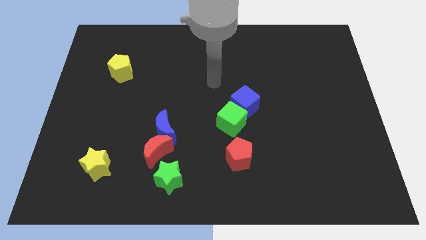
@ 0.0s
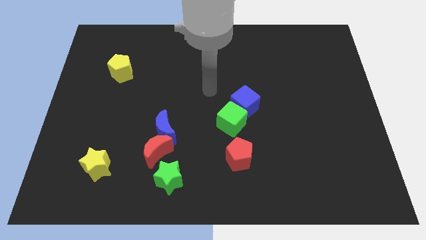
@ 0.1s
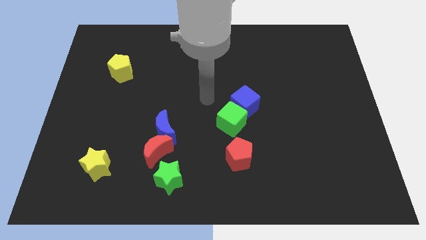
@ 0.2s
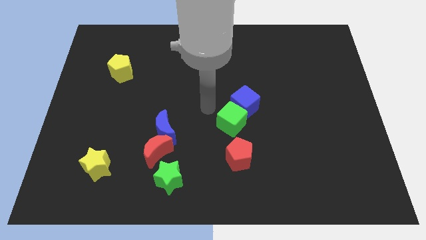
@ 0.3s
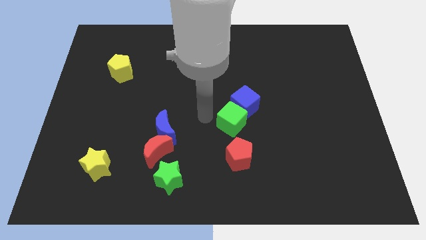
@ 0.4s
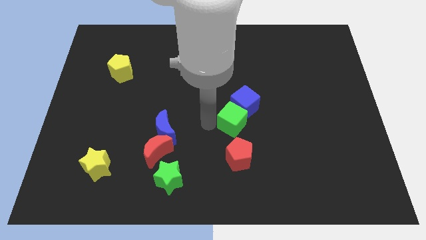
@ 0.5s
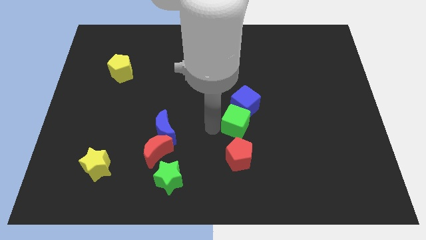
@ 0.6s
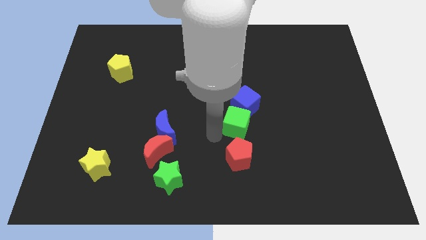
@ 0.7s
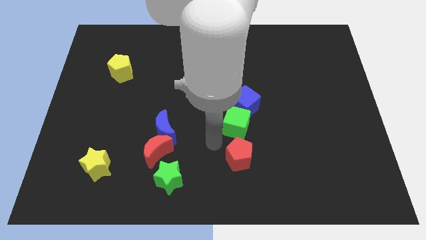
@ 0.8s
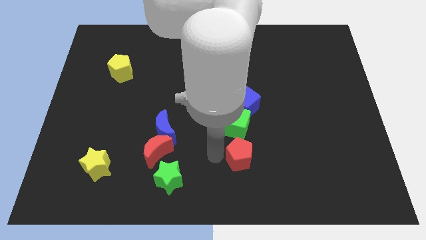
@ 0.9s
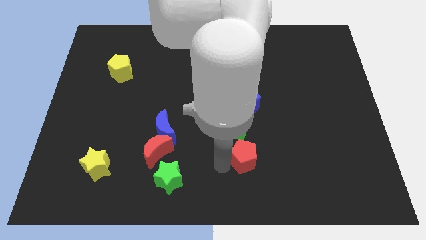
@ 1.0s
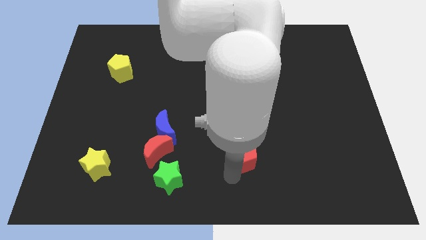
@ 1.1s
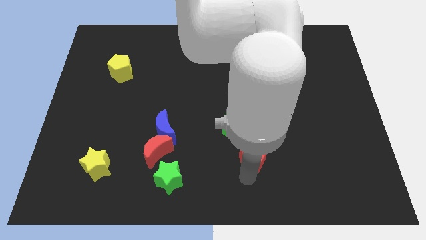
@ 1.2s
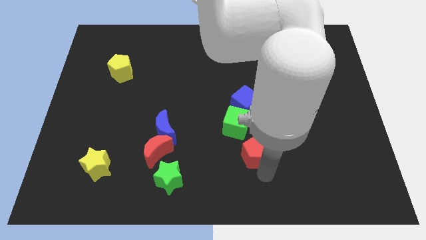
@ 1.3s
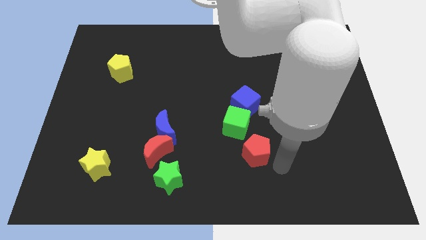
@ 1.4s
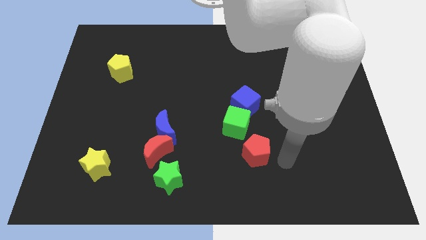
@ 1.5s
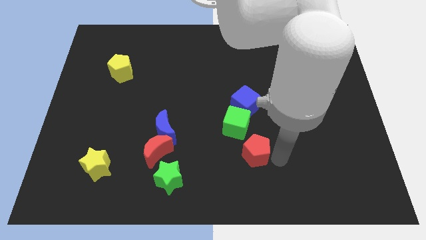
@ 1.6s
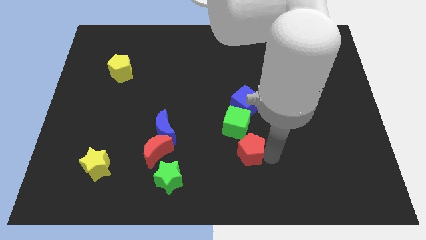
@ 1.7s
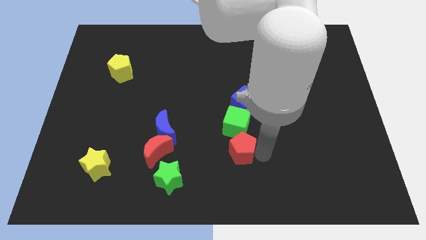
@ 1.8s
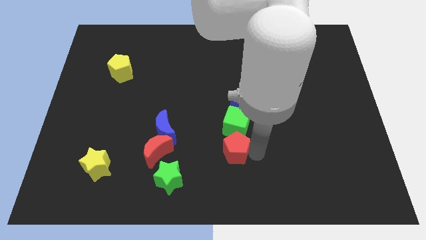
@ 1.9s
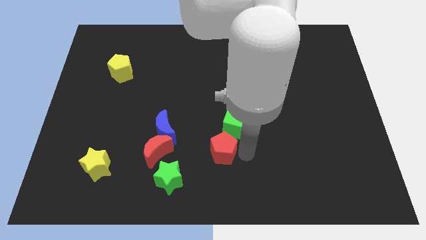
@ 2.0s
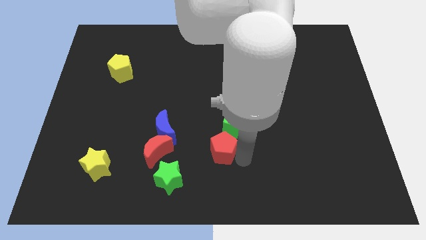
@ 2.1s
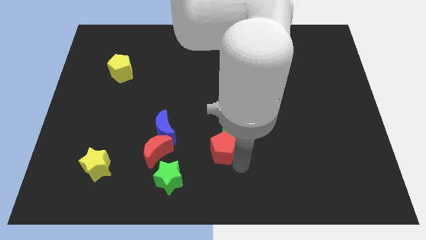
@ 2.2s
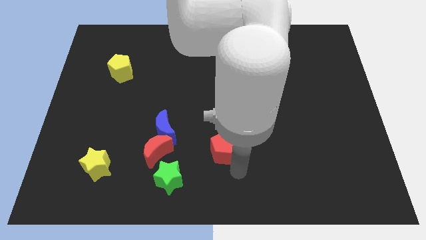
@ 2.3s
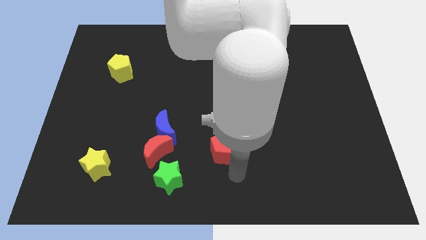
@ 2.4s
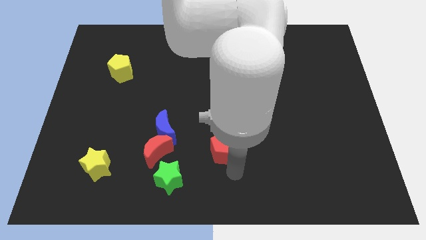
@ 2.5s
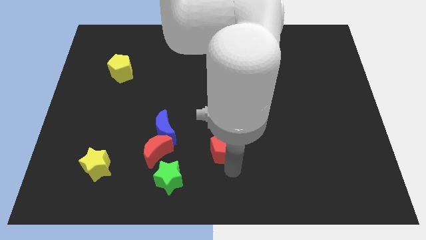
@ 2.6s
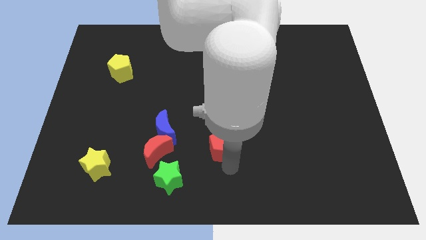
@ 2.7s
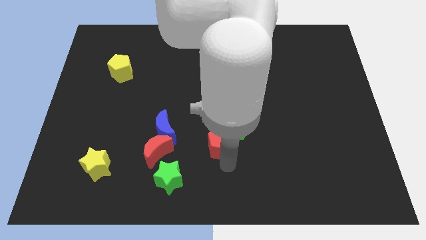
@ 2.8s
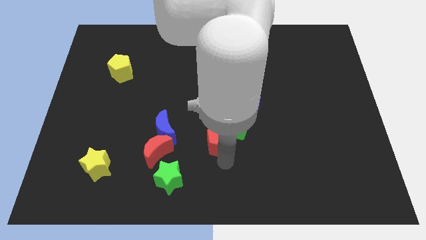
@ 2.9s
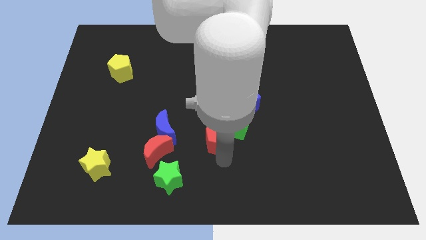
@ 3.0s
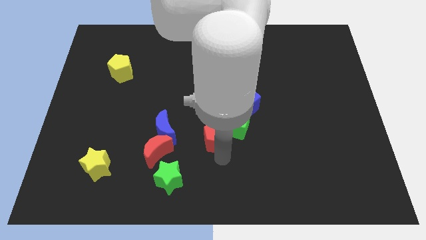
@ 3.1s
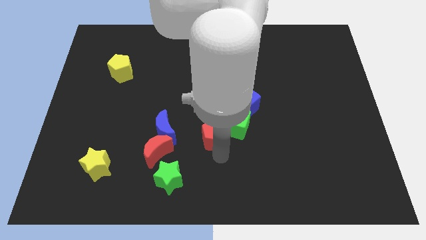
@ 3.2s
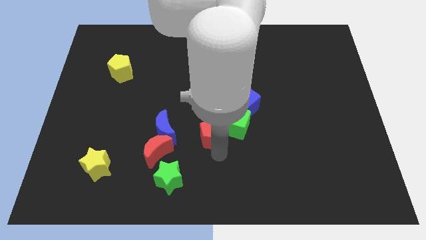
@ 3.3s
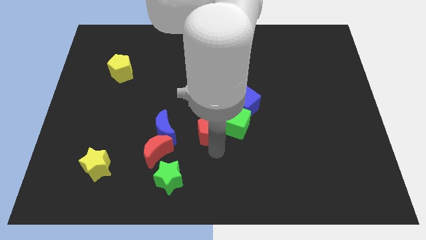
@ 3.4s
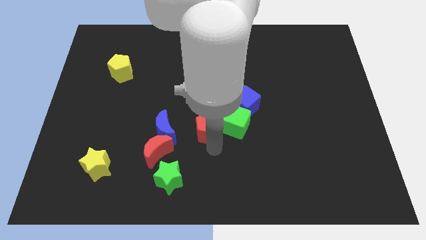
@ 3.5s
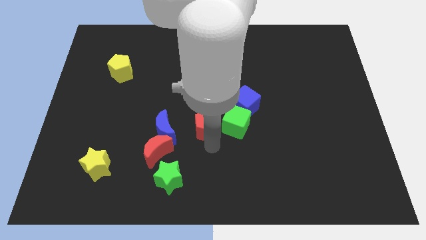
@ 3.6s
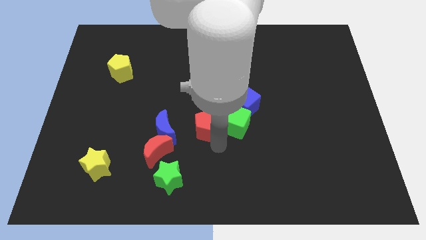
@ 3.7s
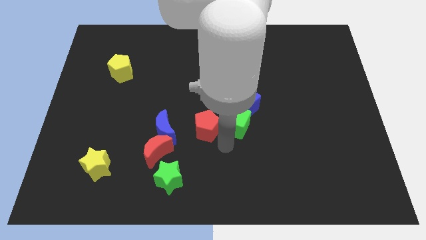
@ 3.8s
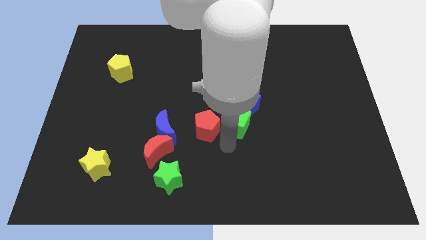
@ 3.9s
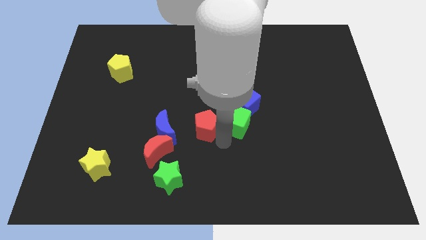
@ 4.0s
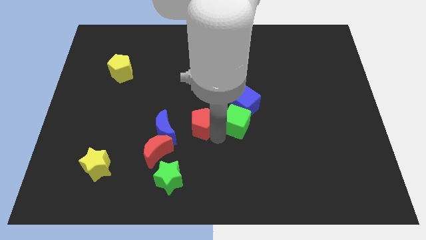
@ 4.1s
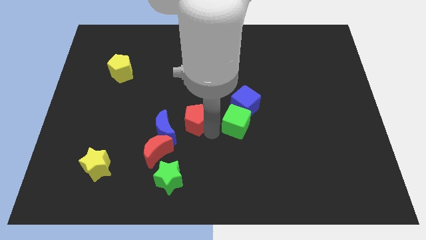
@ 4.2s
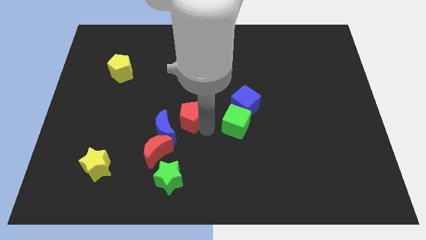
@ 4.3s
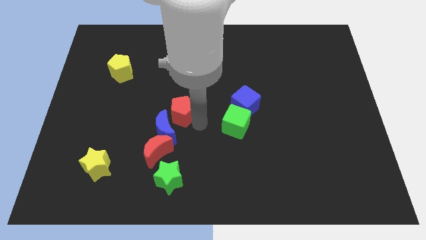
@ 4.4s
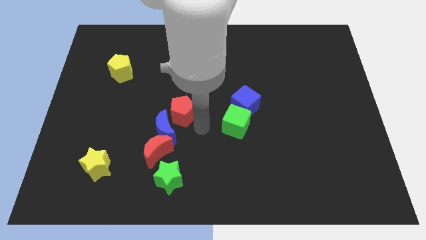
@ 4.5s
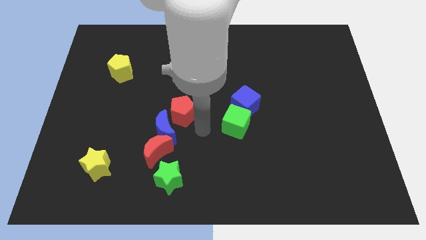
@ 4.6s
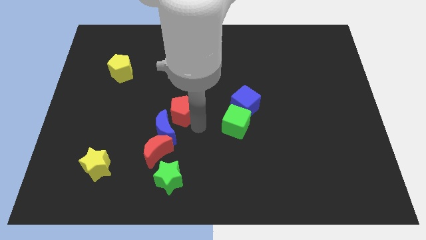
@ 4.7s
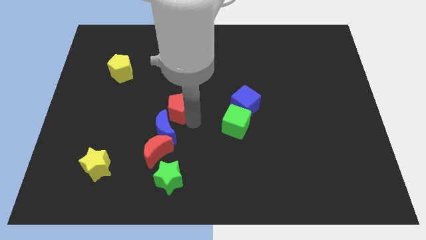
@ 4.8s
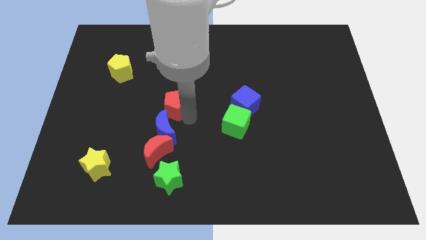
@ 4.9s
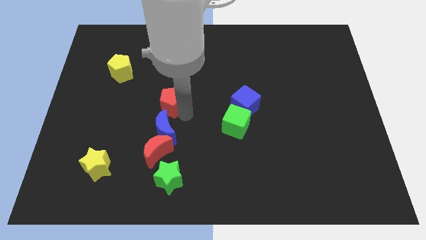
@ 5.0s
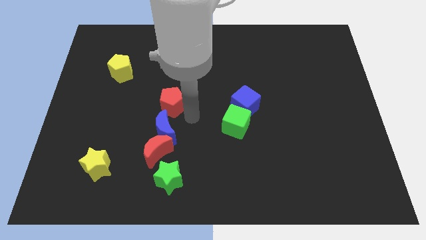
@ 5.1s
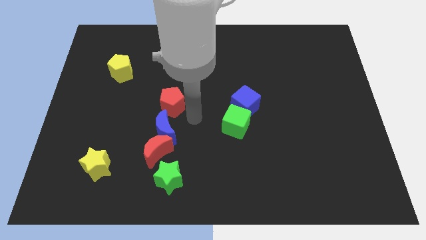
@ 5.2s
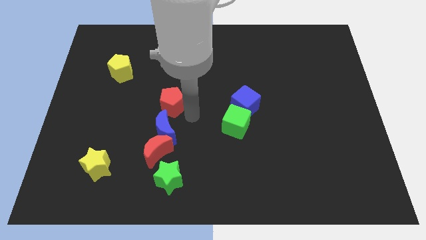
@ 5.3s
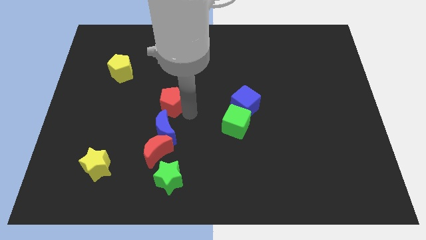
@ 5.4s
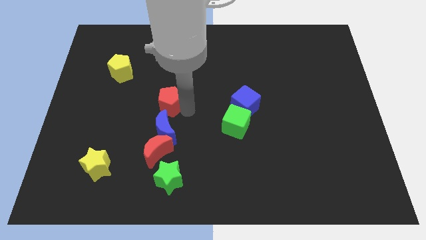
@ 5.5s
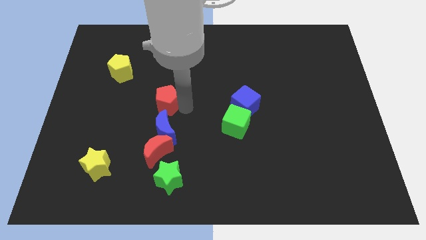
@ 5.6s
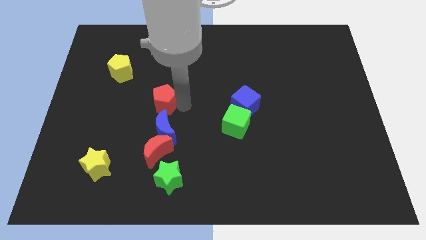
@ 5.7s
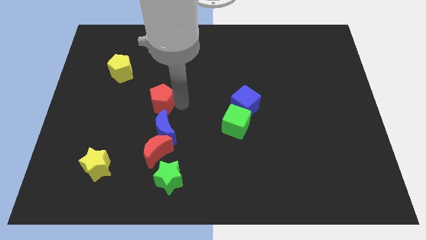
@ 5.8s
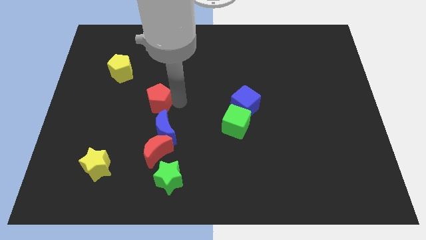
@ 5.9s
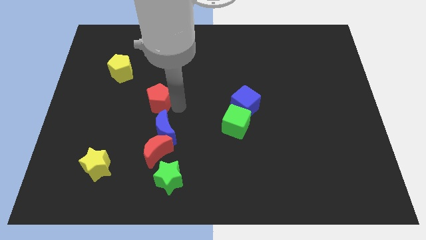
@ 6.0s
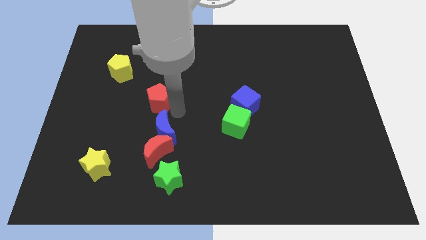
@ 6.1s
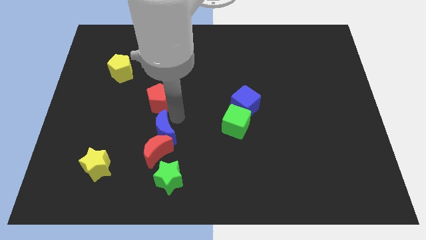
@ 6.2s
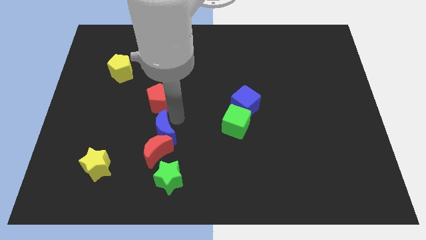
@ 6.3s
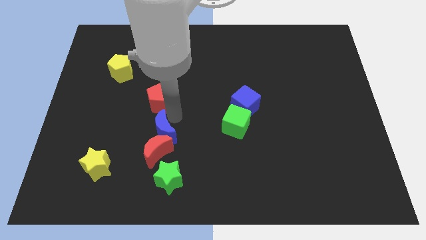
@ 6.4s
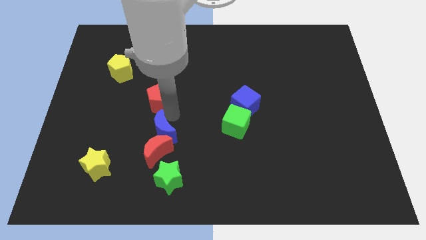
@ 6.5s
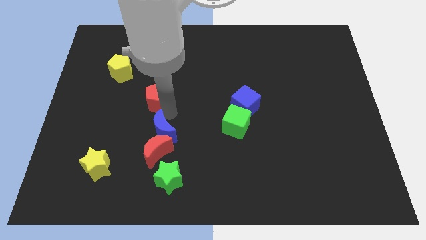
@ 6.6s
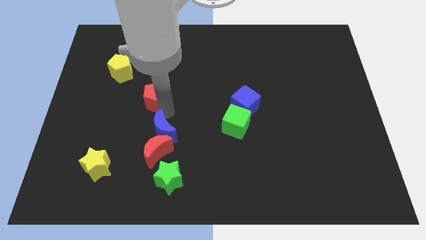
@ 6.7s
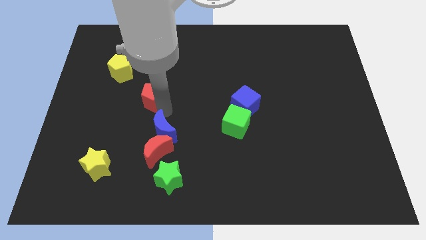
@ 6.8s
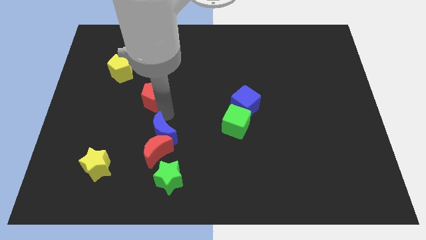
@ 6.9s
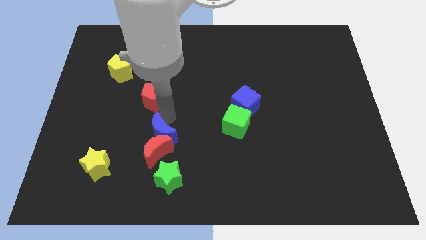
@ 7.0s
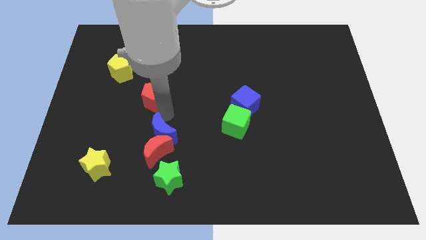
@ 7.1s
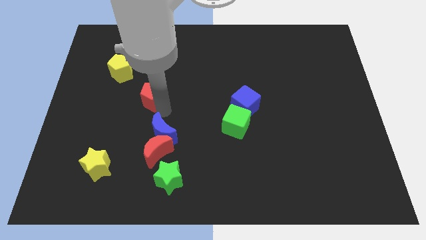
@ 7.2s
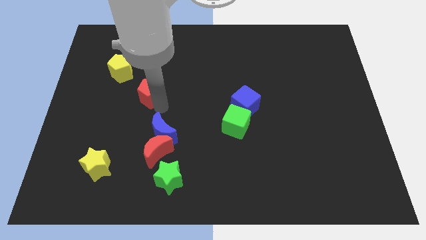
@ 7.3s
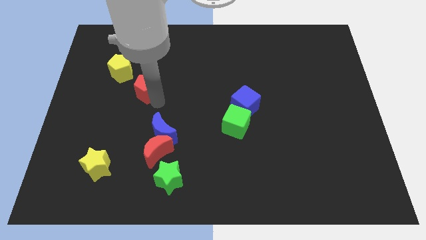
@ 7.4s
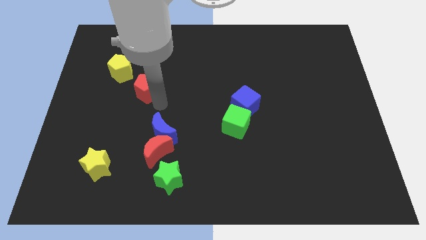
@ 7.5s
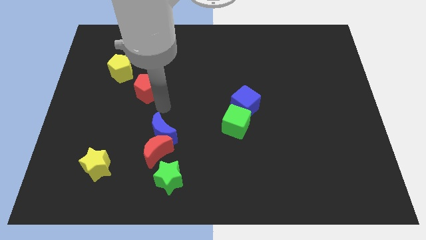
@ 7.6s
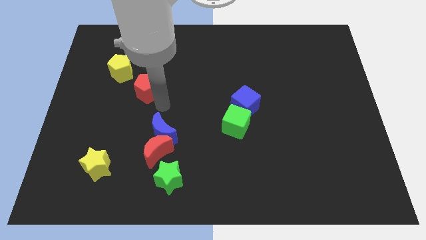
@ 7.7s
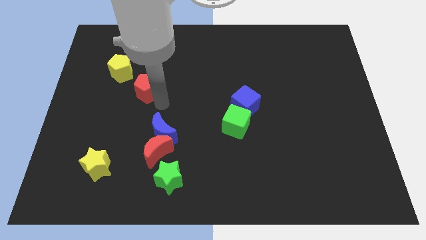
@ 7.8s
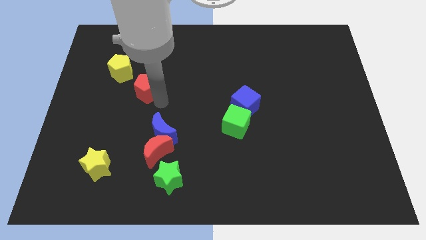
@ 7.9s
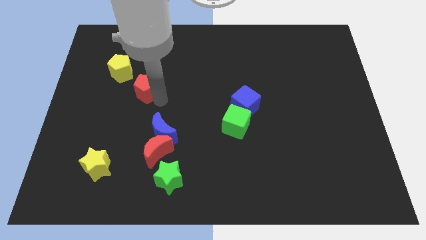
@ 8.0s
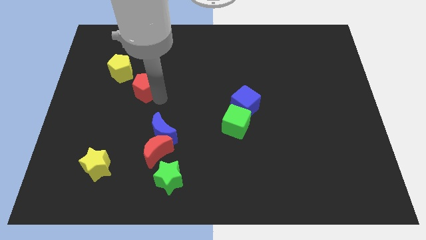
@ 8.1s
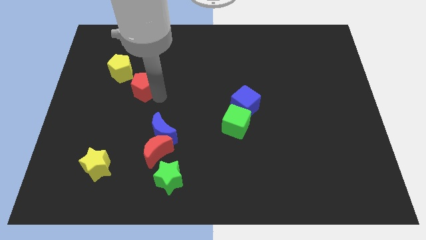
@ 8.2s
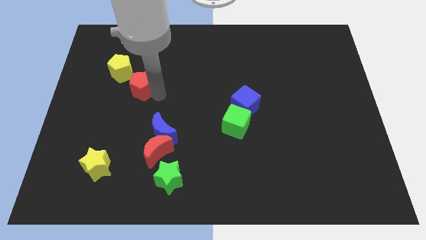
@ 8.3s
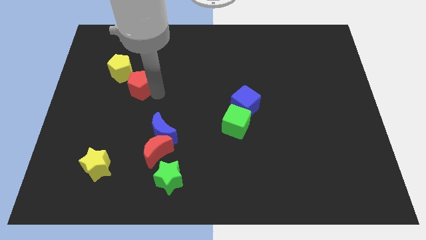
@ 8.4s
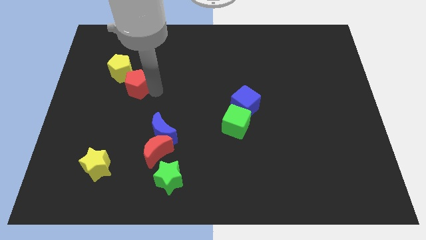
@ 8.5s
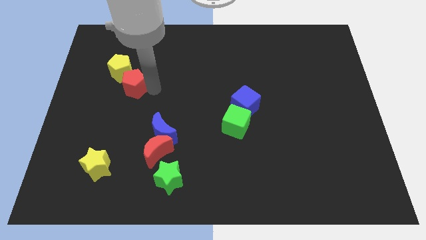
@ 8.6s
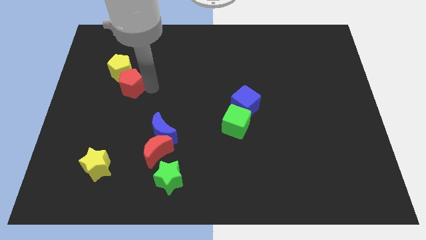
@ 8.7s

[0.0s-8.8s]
push the red pentagon towards the yellow pentagon
